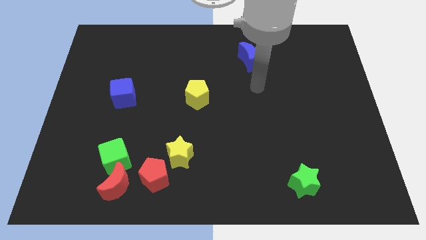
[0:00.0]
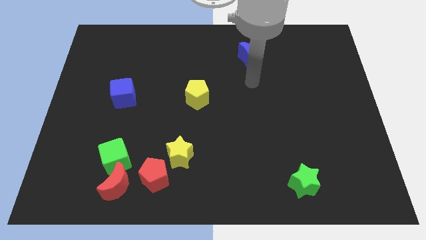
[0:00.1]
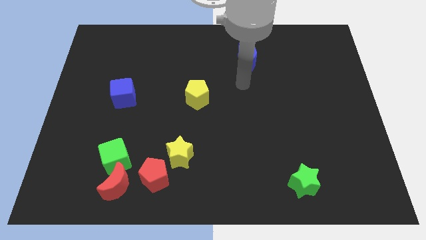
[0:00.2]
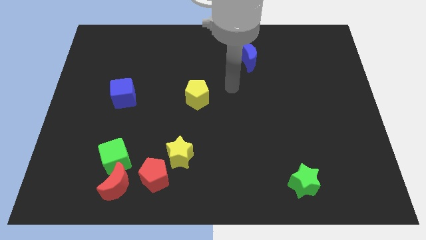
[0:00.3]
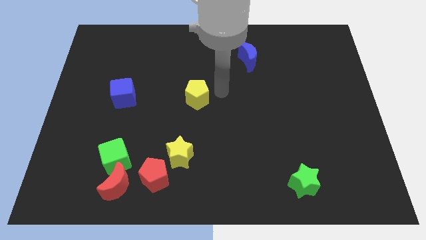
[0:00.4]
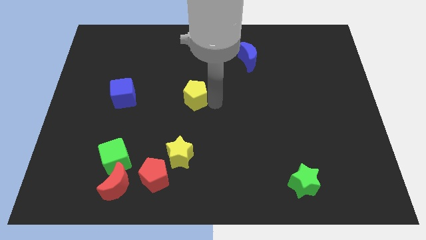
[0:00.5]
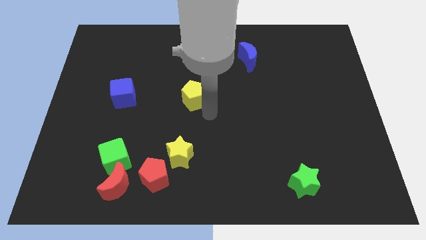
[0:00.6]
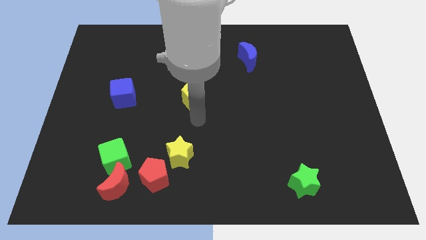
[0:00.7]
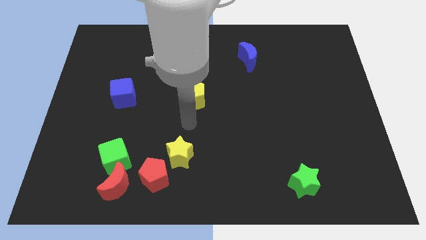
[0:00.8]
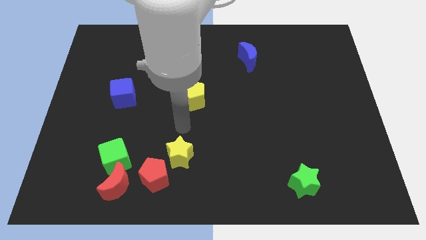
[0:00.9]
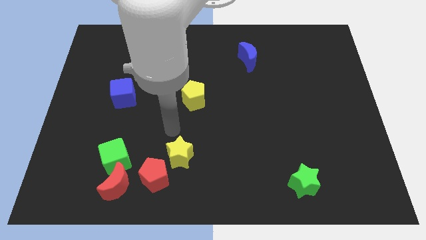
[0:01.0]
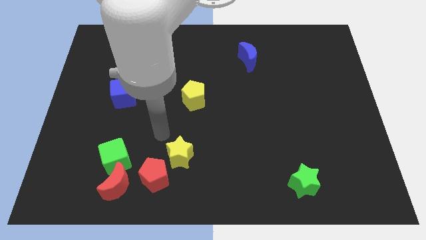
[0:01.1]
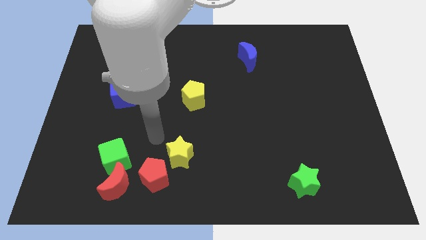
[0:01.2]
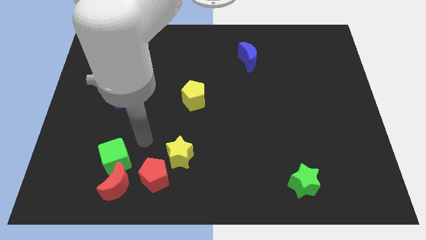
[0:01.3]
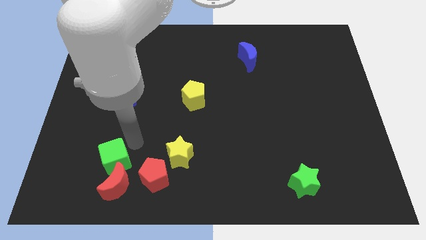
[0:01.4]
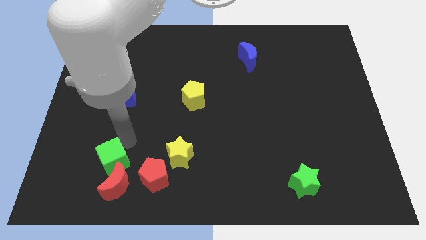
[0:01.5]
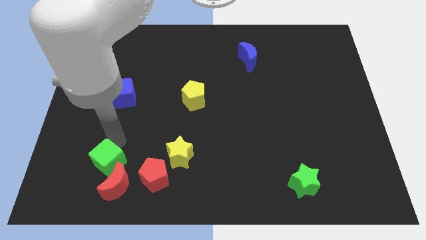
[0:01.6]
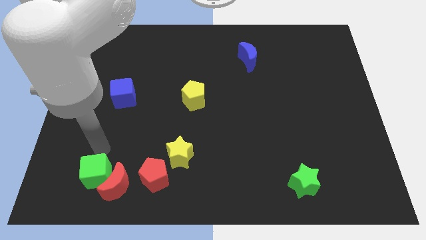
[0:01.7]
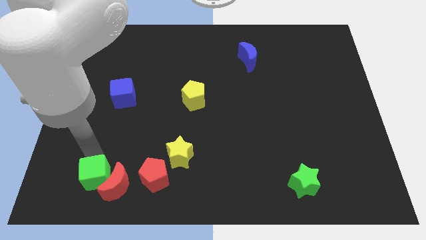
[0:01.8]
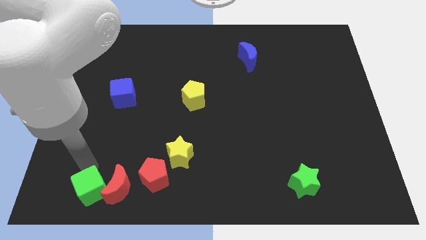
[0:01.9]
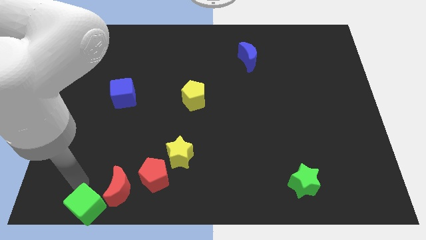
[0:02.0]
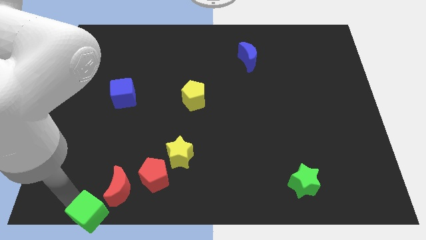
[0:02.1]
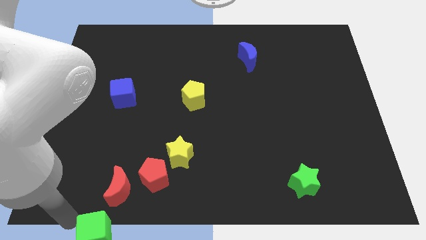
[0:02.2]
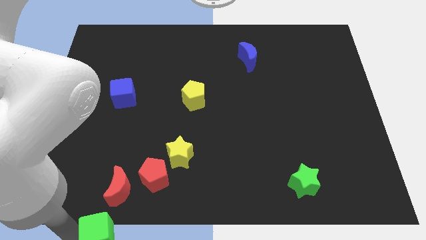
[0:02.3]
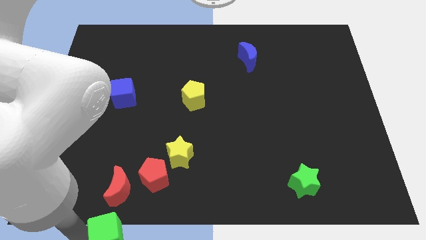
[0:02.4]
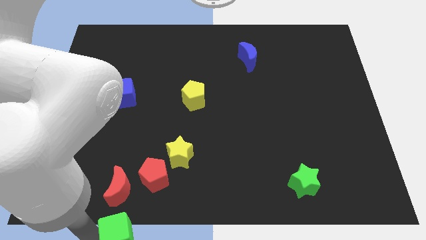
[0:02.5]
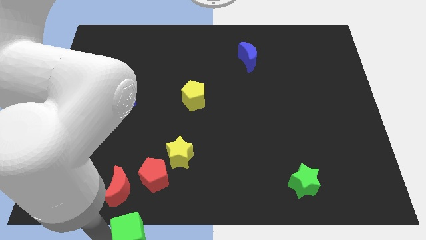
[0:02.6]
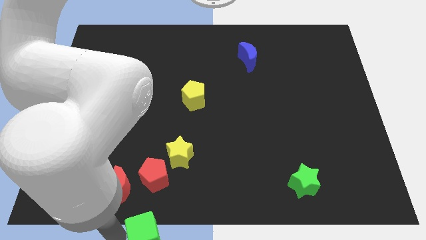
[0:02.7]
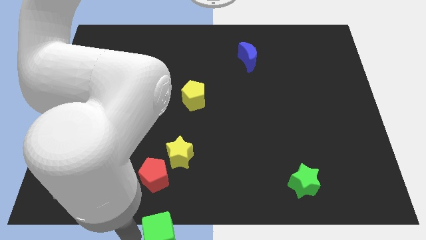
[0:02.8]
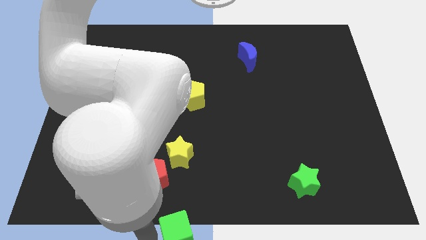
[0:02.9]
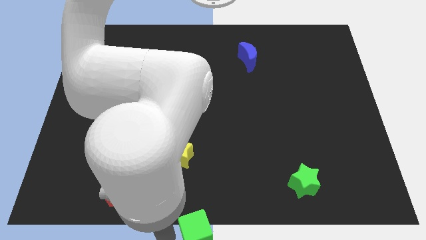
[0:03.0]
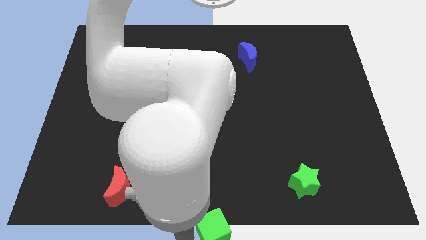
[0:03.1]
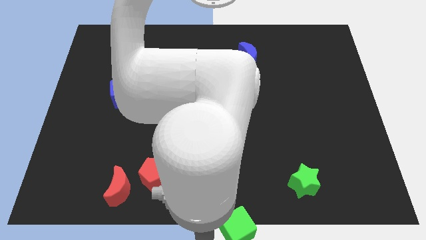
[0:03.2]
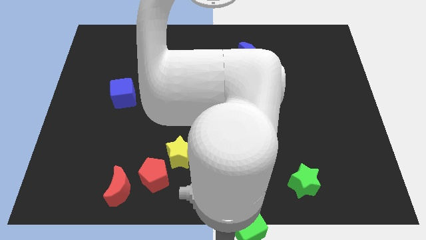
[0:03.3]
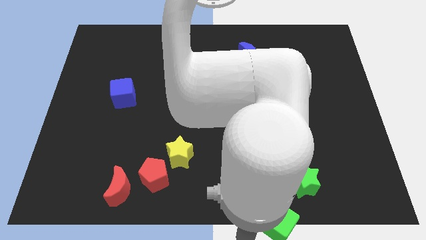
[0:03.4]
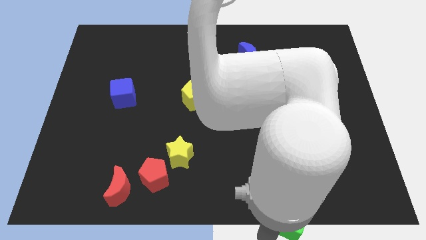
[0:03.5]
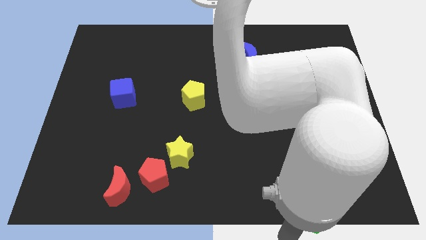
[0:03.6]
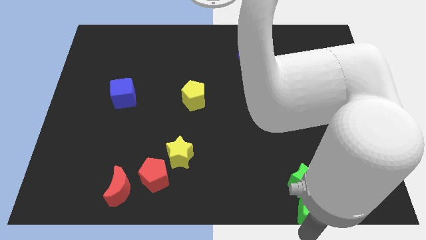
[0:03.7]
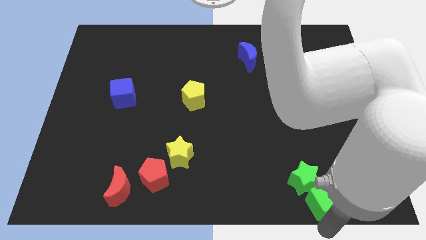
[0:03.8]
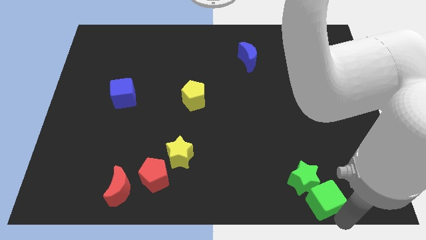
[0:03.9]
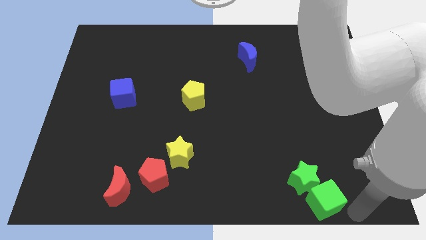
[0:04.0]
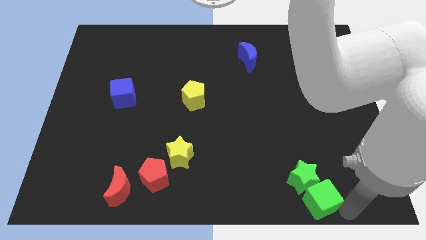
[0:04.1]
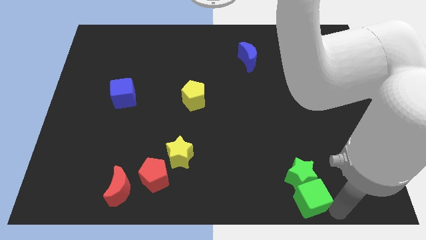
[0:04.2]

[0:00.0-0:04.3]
push the green cube right

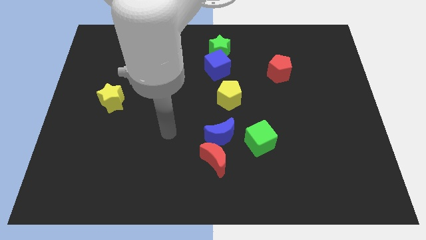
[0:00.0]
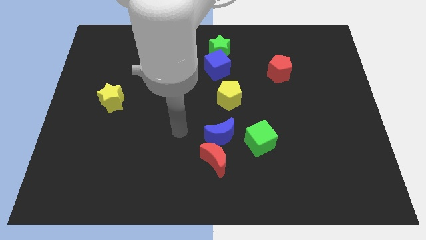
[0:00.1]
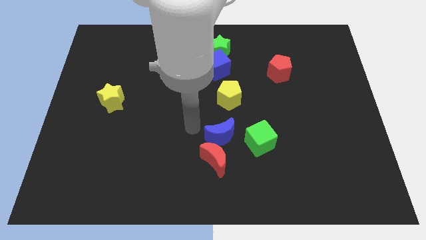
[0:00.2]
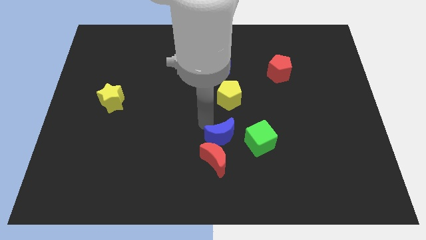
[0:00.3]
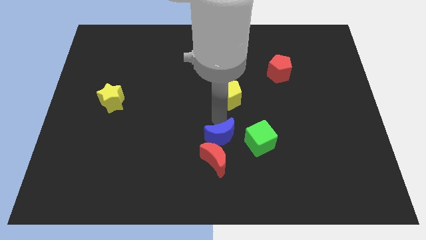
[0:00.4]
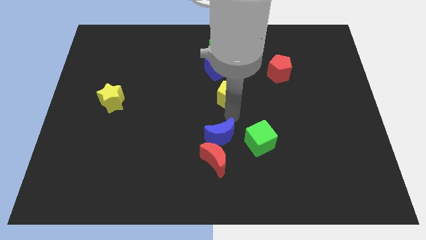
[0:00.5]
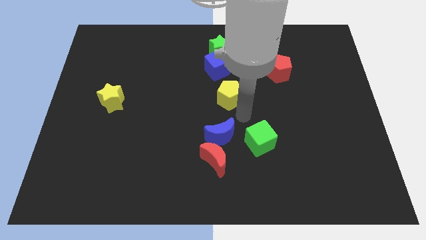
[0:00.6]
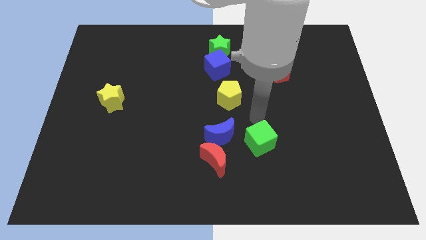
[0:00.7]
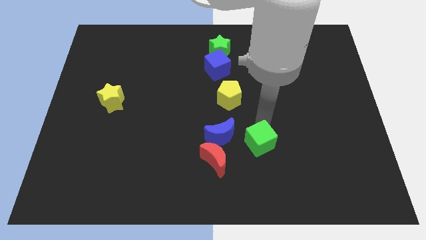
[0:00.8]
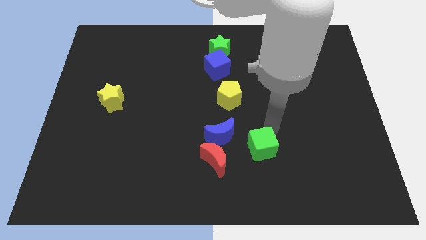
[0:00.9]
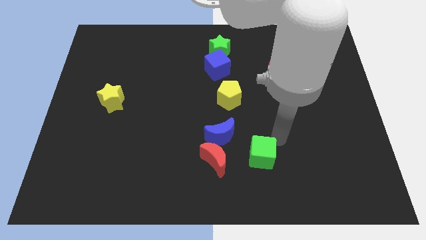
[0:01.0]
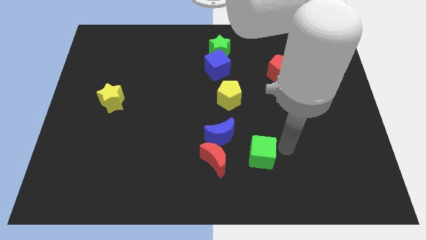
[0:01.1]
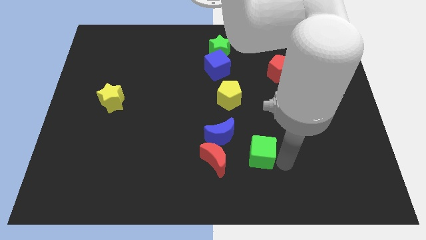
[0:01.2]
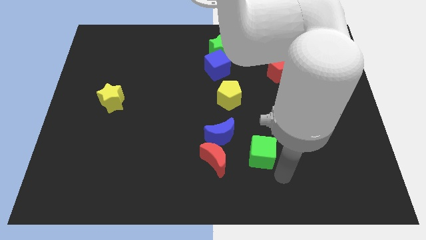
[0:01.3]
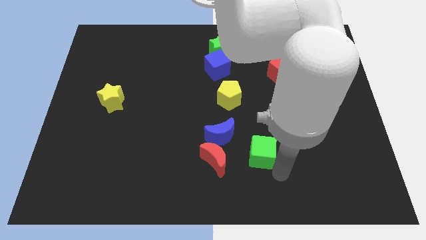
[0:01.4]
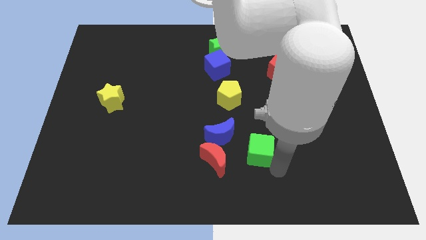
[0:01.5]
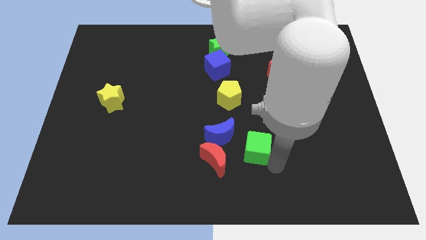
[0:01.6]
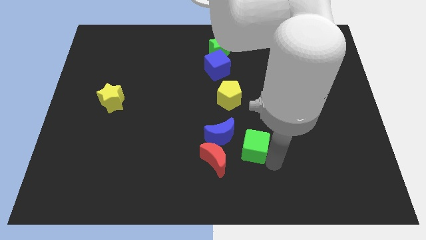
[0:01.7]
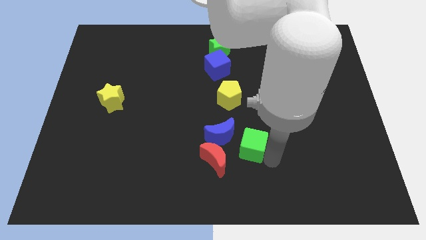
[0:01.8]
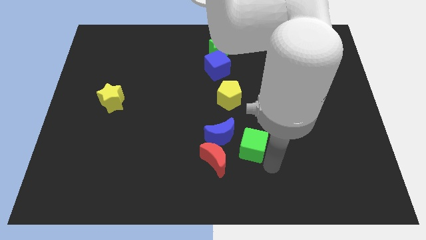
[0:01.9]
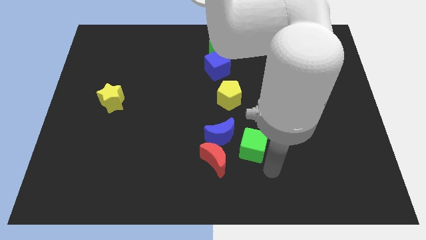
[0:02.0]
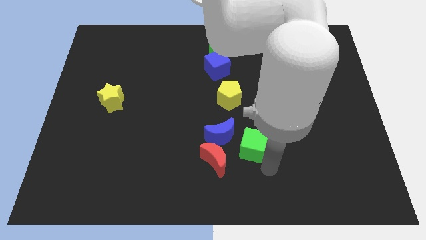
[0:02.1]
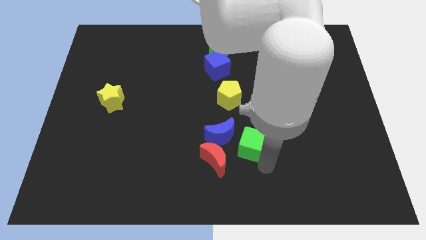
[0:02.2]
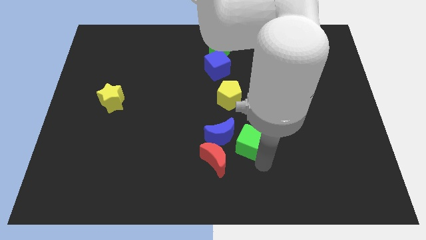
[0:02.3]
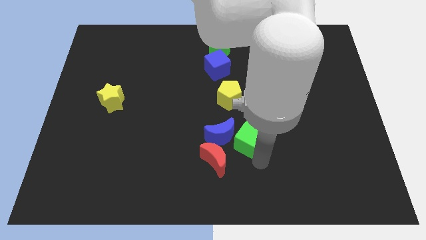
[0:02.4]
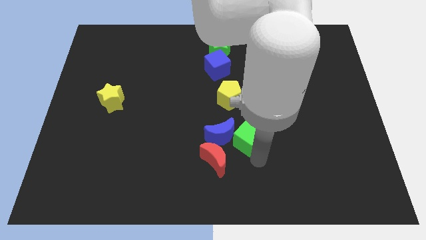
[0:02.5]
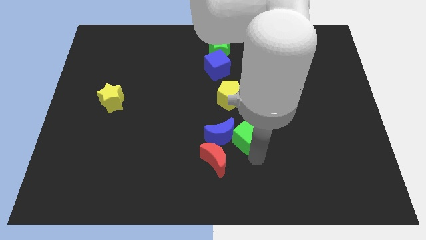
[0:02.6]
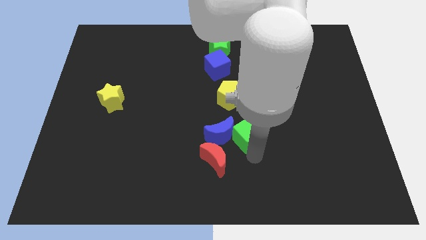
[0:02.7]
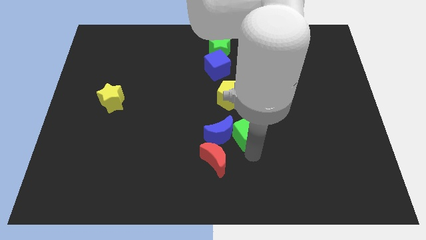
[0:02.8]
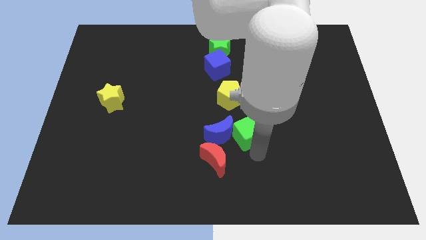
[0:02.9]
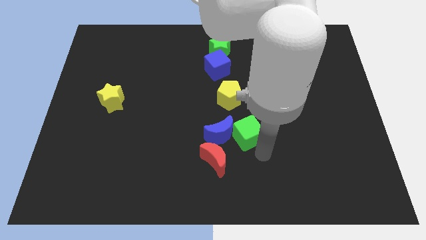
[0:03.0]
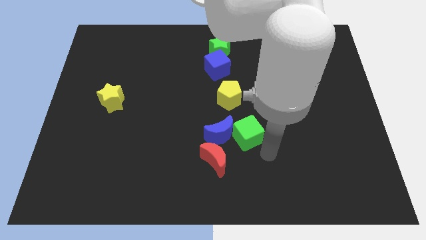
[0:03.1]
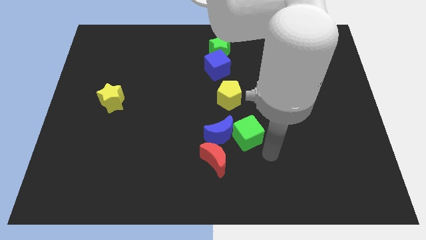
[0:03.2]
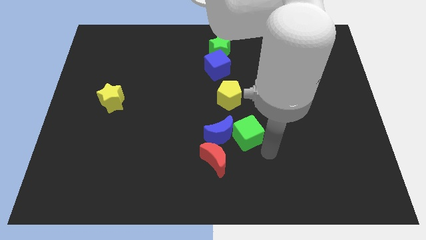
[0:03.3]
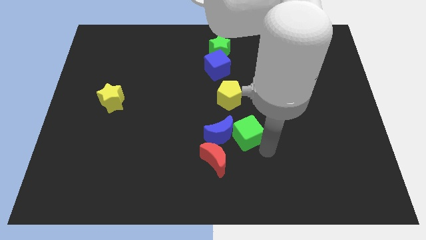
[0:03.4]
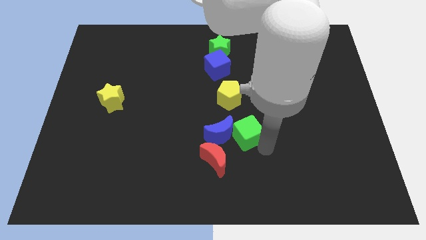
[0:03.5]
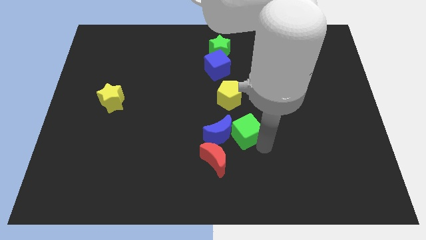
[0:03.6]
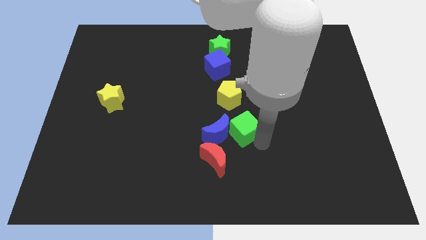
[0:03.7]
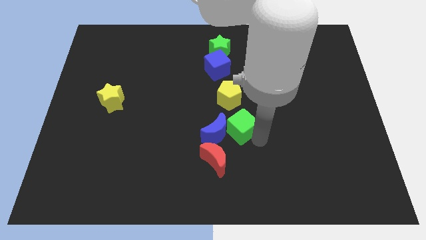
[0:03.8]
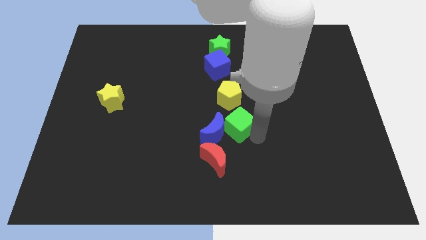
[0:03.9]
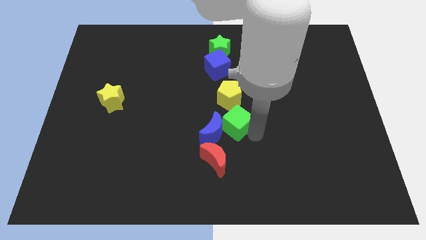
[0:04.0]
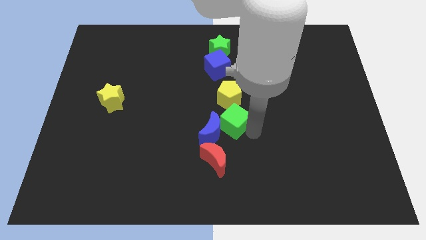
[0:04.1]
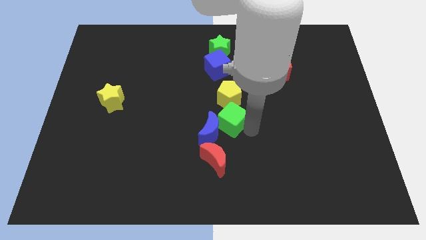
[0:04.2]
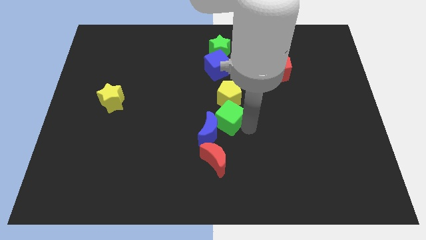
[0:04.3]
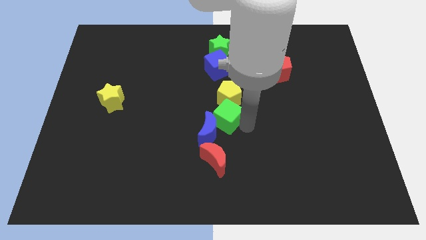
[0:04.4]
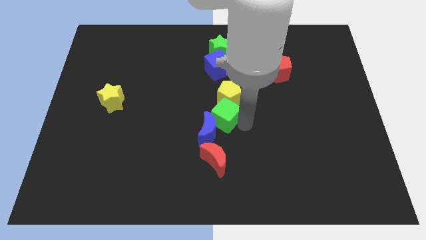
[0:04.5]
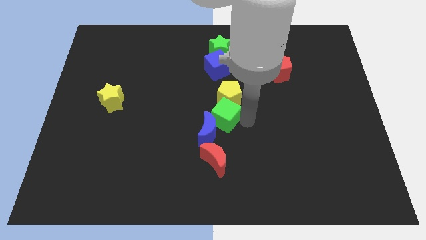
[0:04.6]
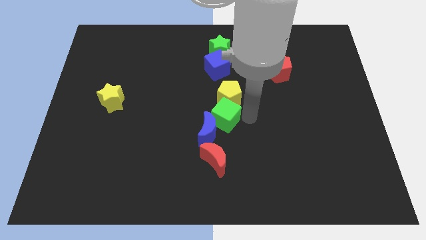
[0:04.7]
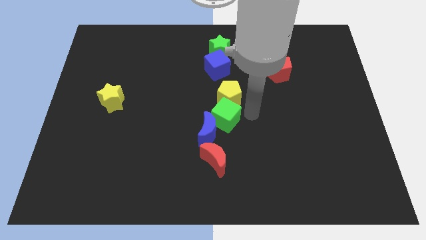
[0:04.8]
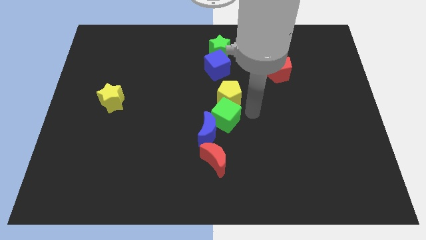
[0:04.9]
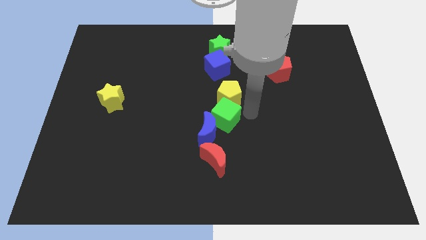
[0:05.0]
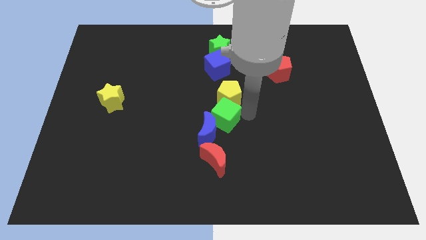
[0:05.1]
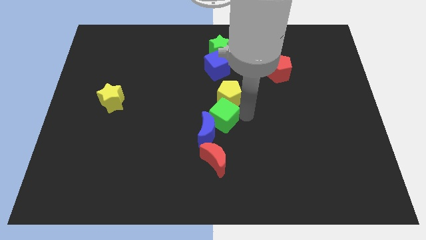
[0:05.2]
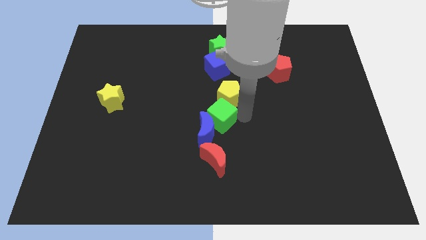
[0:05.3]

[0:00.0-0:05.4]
slightly slide the green cube left
